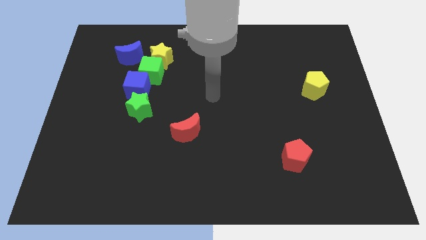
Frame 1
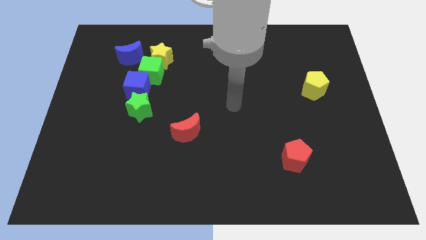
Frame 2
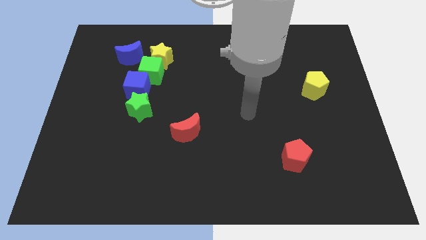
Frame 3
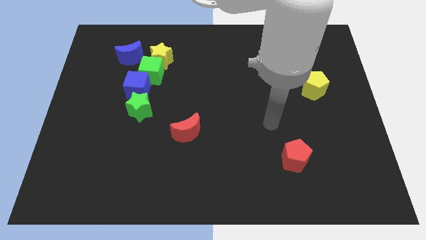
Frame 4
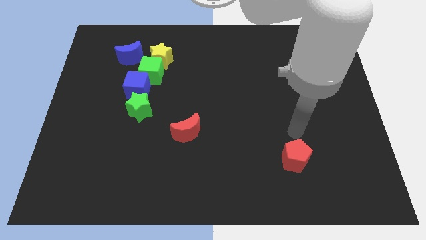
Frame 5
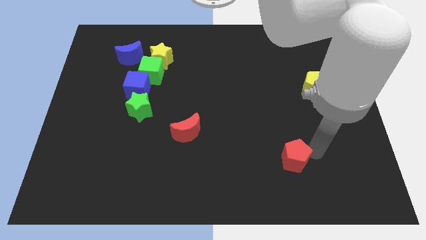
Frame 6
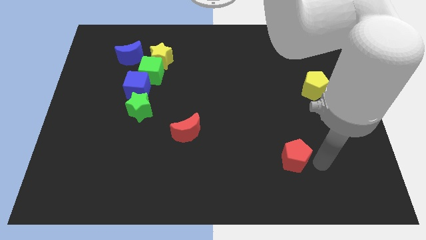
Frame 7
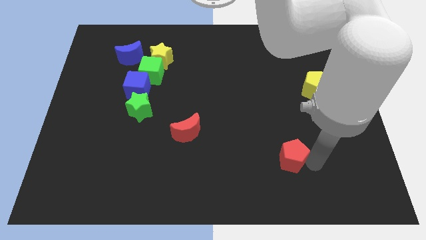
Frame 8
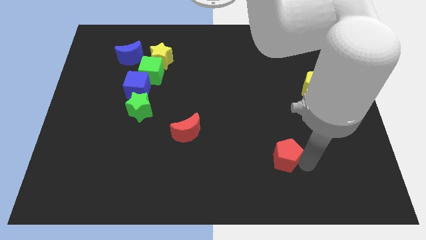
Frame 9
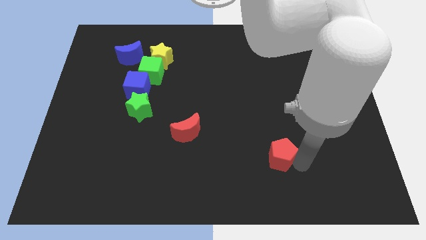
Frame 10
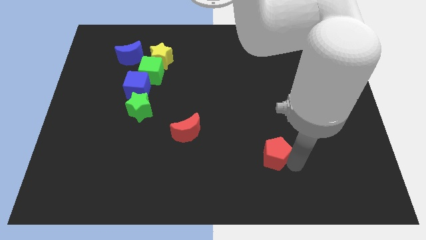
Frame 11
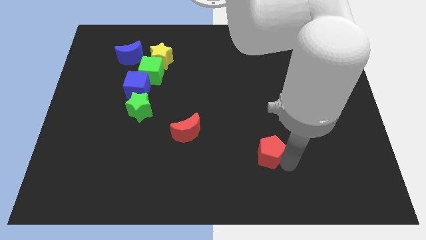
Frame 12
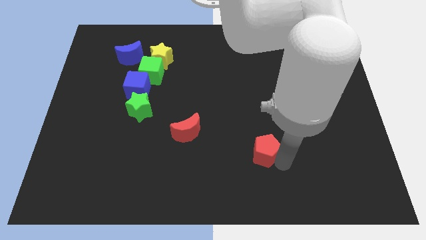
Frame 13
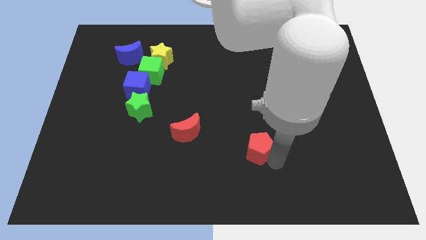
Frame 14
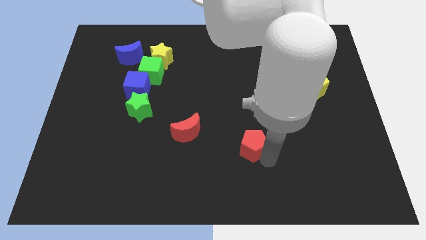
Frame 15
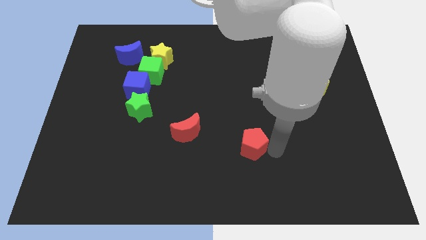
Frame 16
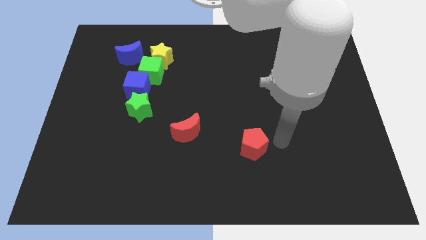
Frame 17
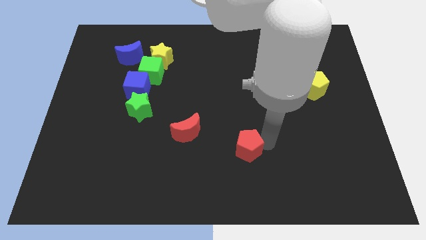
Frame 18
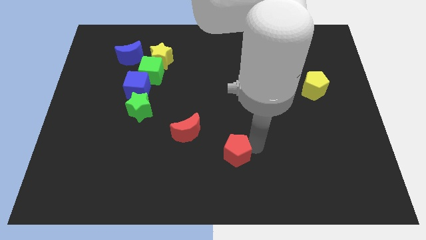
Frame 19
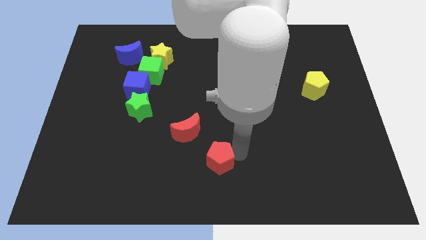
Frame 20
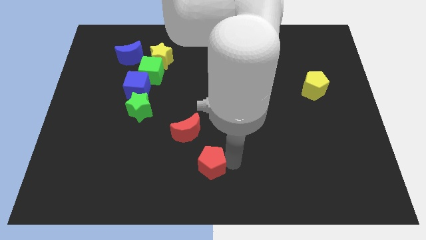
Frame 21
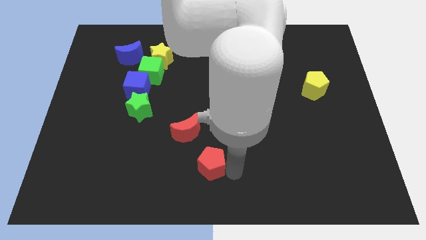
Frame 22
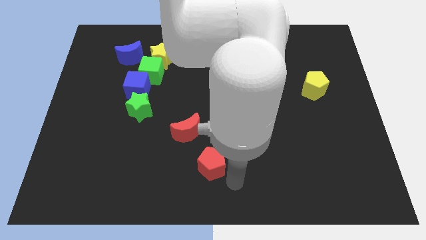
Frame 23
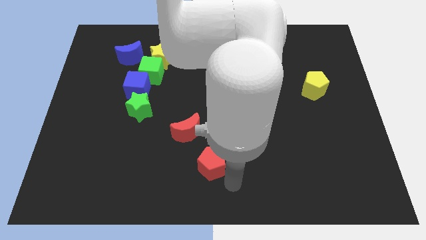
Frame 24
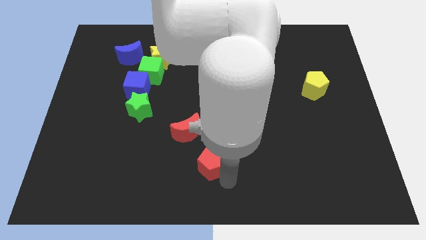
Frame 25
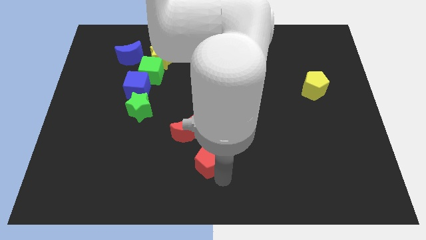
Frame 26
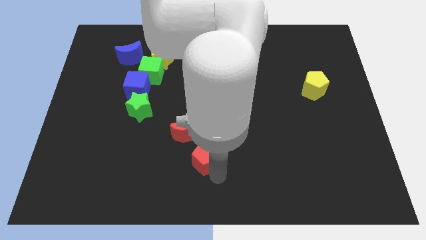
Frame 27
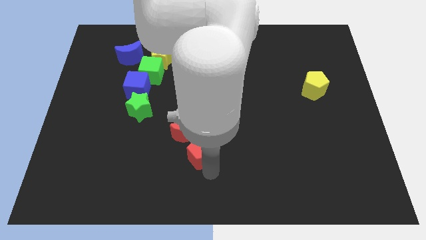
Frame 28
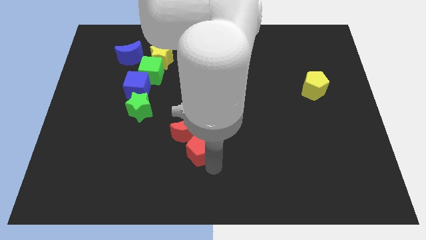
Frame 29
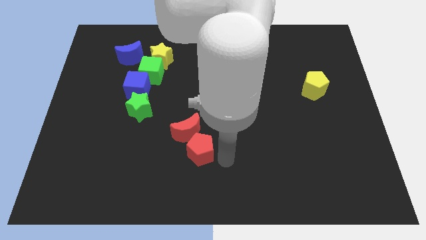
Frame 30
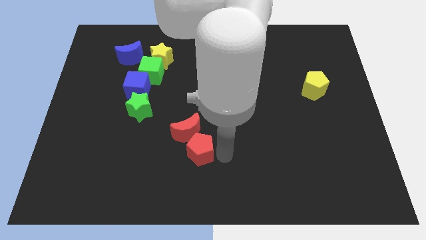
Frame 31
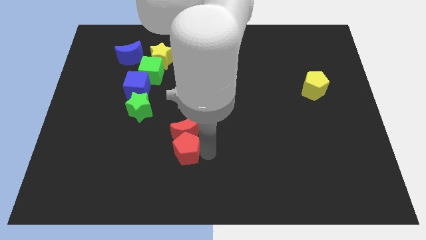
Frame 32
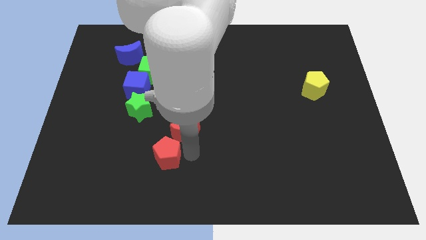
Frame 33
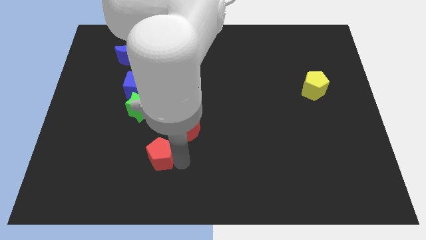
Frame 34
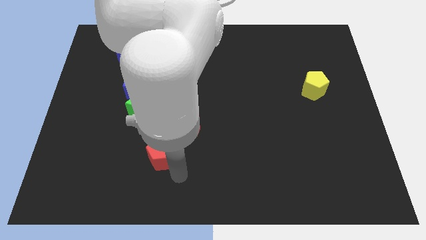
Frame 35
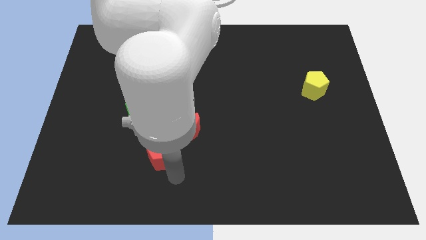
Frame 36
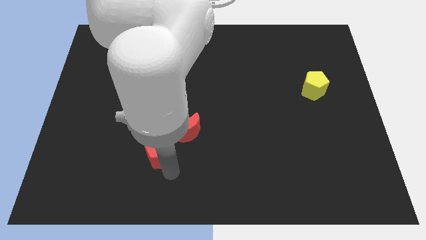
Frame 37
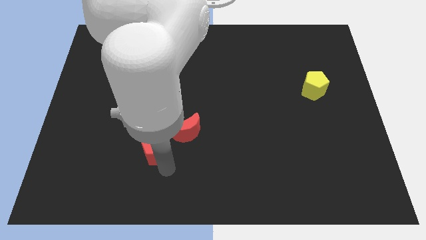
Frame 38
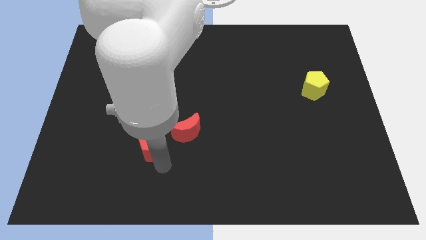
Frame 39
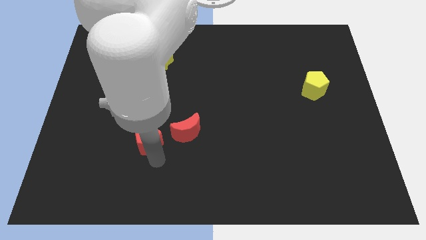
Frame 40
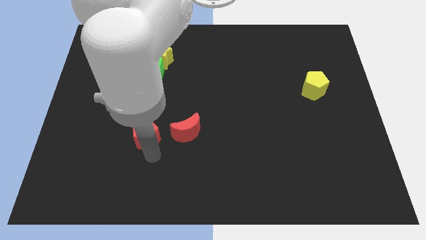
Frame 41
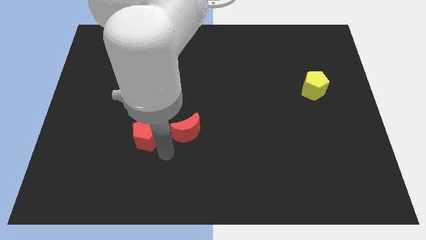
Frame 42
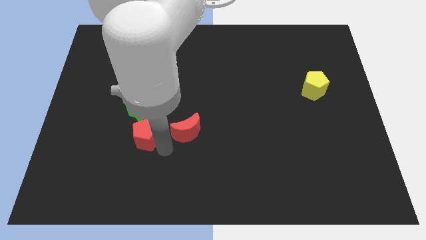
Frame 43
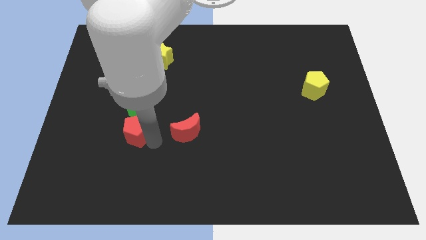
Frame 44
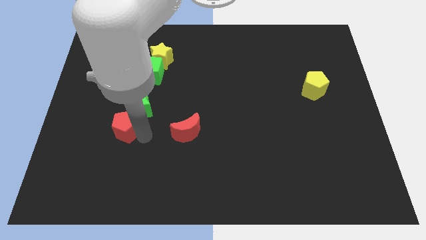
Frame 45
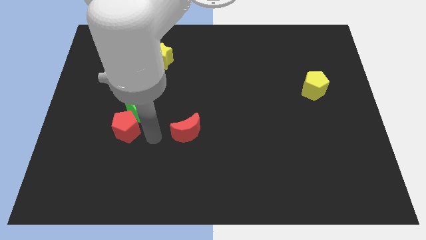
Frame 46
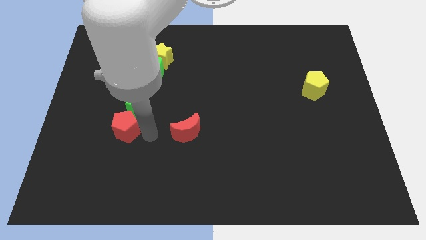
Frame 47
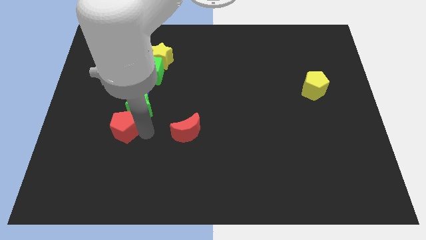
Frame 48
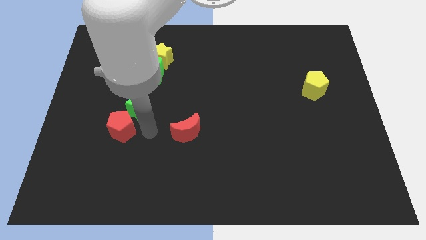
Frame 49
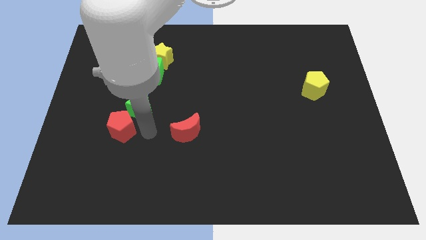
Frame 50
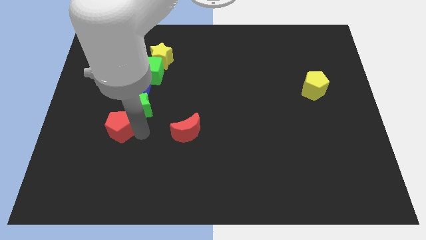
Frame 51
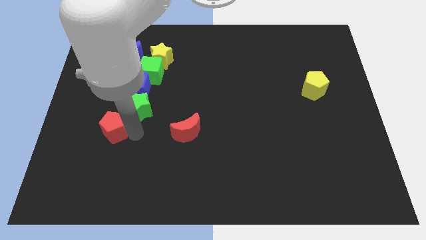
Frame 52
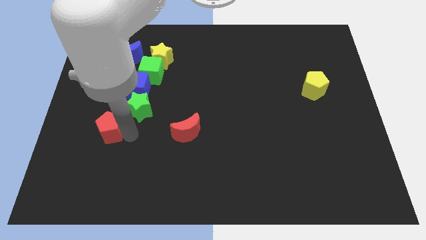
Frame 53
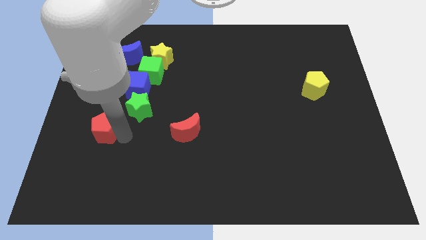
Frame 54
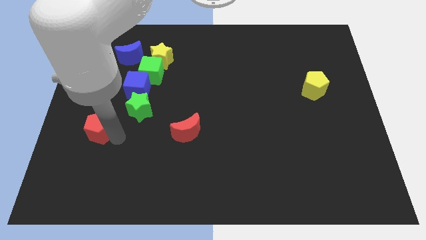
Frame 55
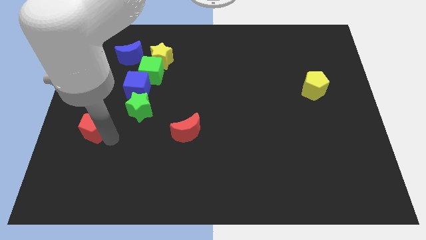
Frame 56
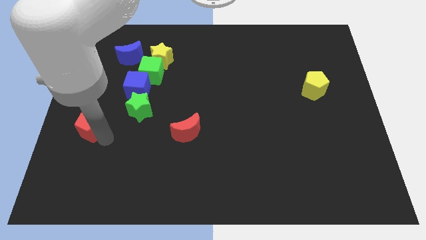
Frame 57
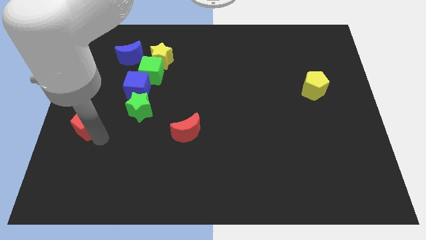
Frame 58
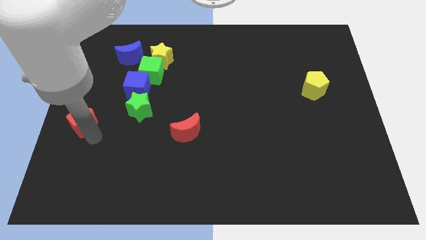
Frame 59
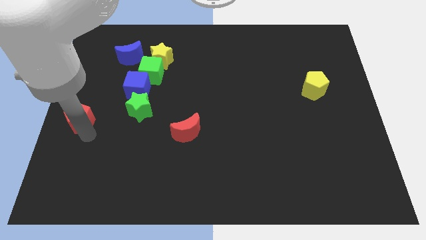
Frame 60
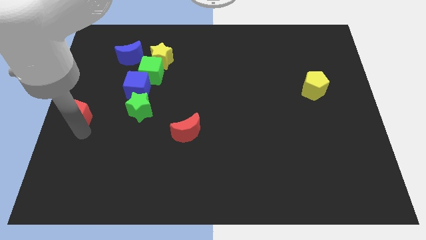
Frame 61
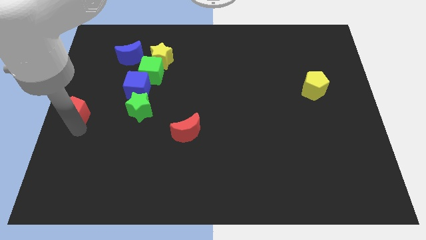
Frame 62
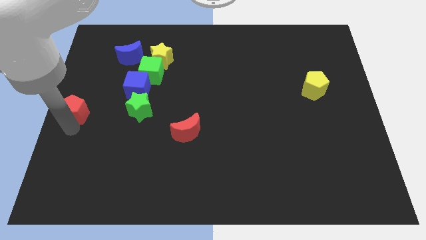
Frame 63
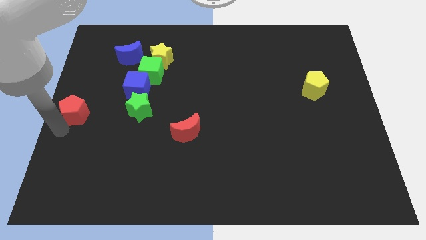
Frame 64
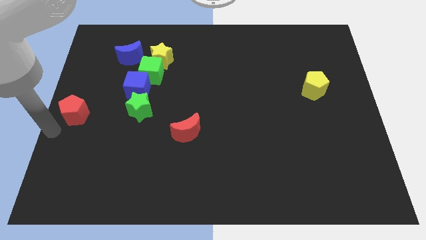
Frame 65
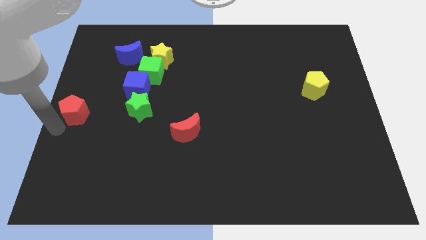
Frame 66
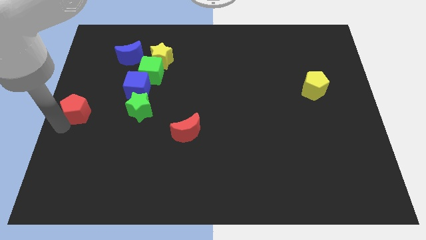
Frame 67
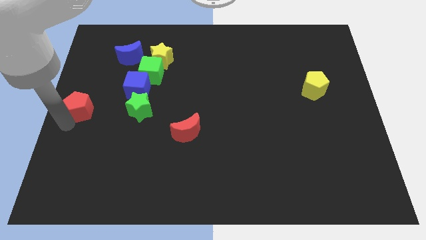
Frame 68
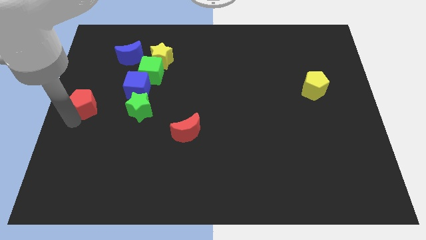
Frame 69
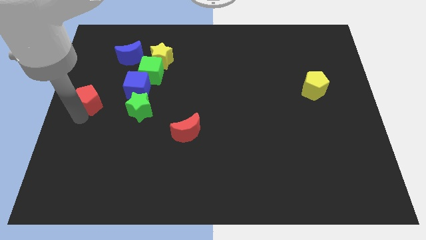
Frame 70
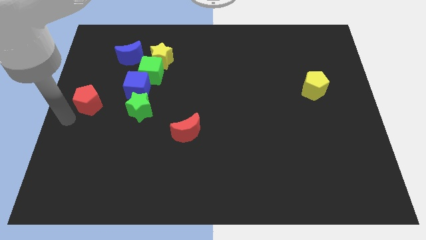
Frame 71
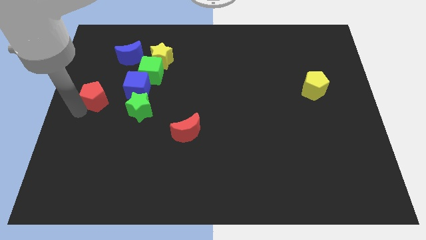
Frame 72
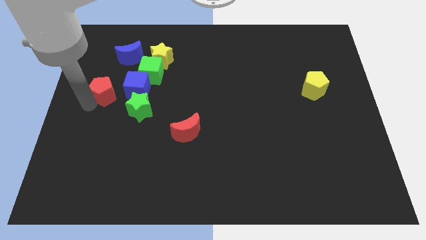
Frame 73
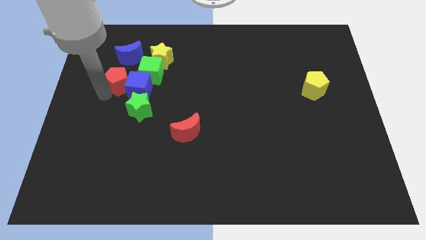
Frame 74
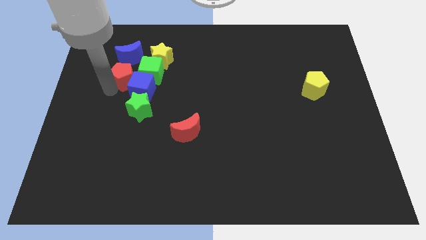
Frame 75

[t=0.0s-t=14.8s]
push the red pentagon diagonally down and to the left of the yellow star

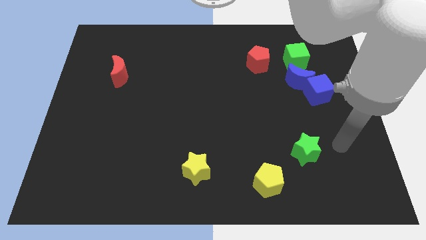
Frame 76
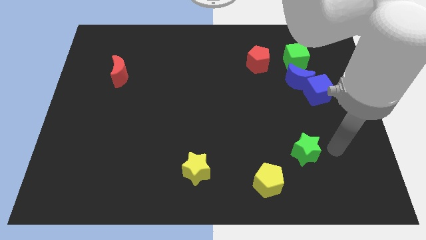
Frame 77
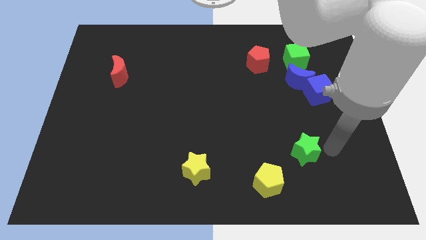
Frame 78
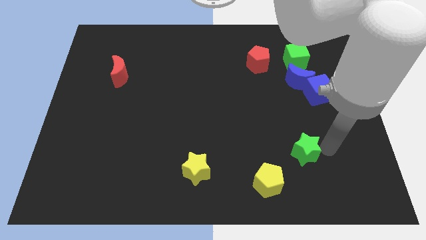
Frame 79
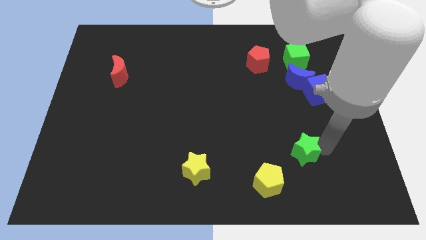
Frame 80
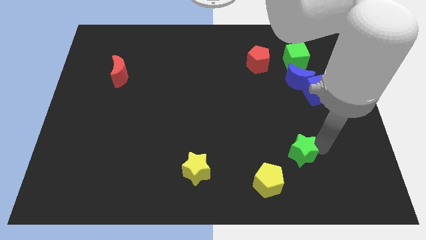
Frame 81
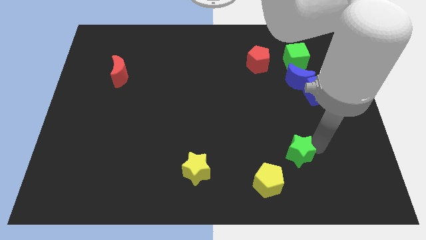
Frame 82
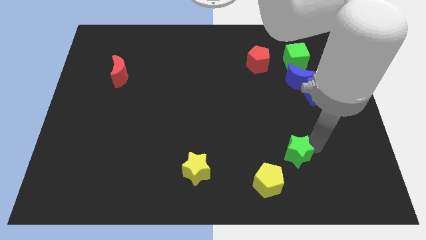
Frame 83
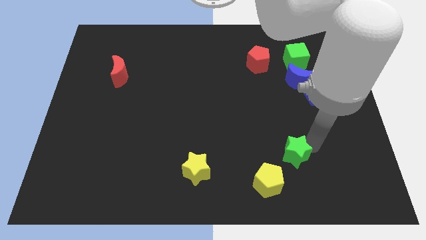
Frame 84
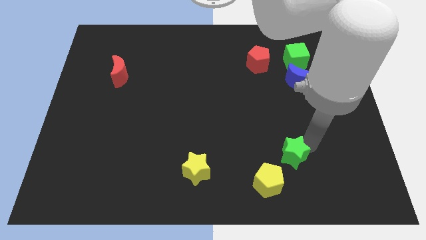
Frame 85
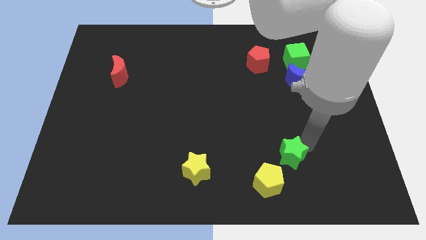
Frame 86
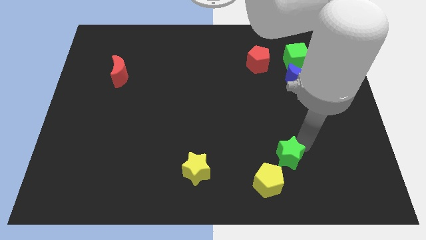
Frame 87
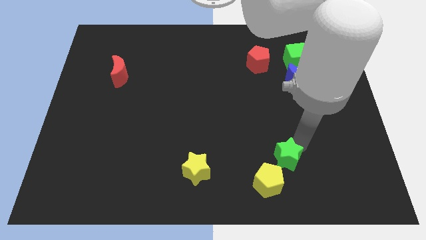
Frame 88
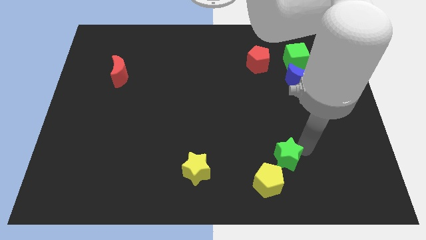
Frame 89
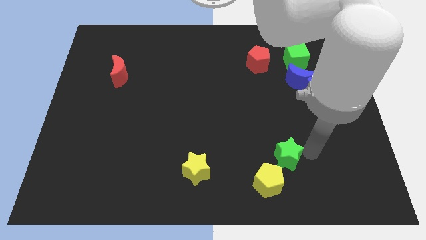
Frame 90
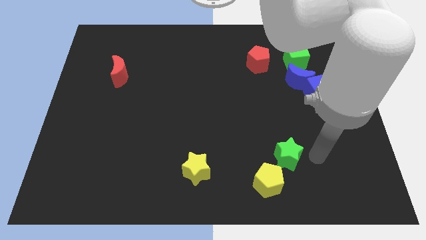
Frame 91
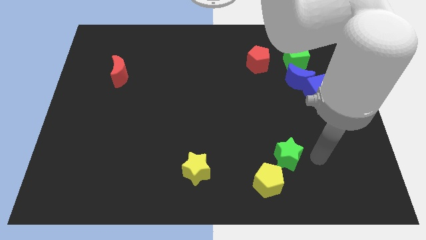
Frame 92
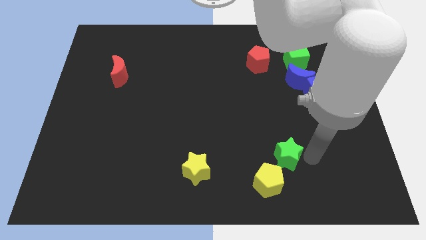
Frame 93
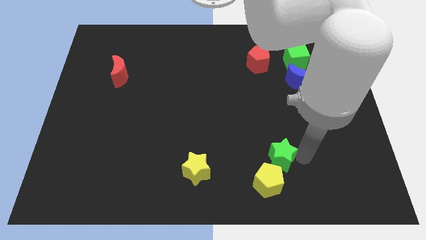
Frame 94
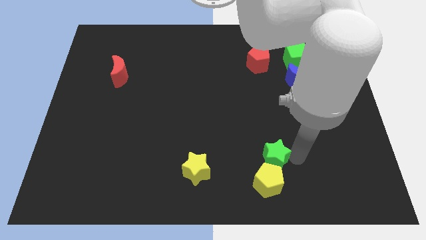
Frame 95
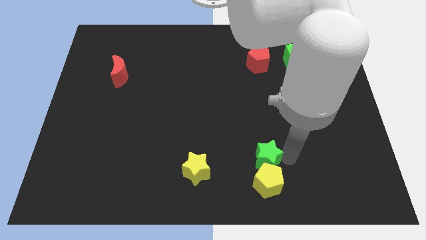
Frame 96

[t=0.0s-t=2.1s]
put the green star to the top left of the yellow pentagon
